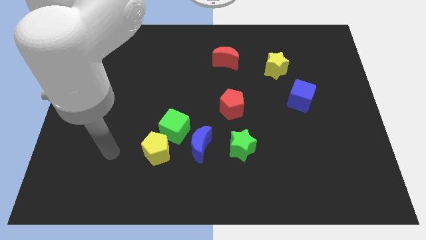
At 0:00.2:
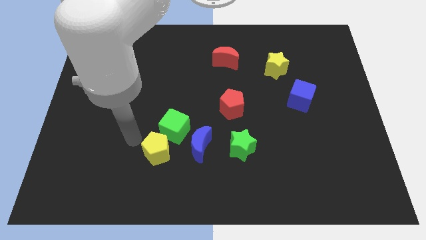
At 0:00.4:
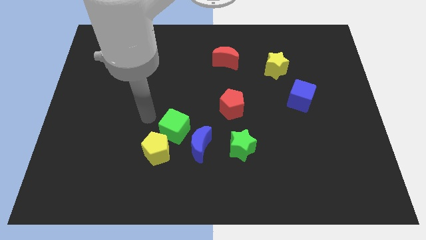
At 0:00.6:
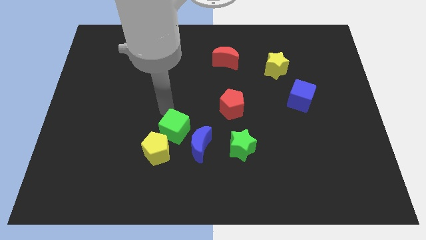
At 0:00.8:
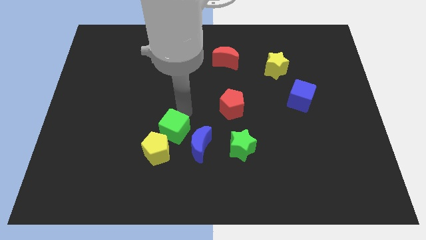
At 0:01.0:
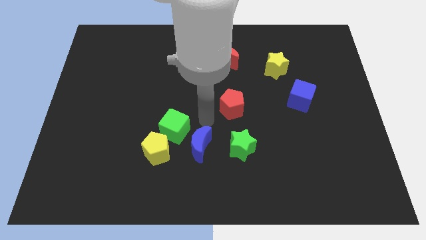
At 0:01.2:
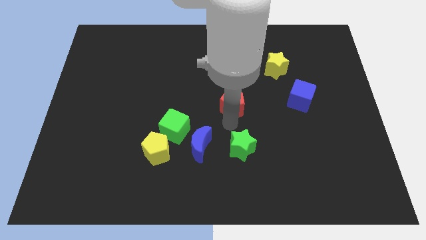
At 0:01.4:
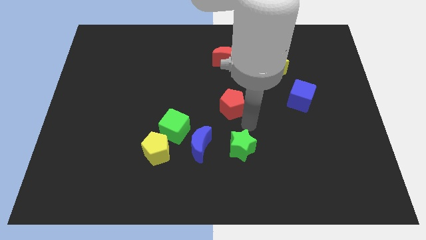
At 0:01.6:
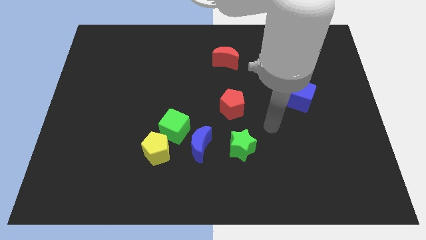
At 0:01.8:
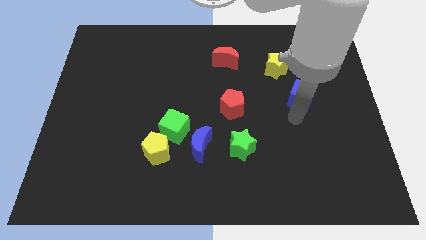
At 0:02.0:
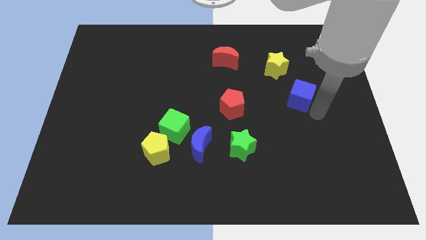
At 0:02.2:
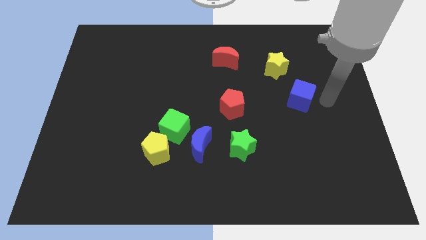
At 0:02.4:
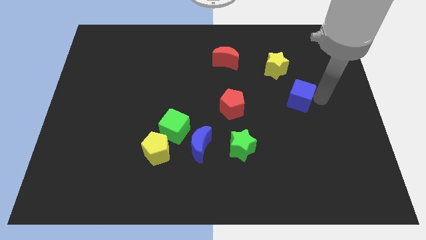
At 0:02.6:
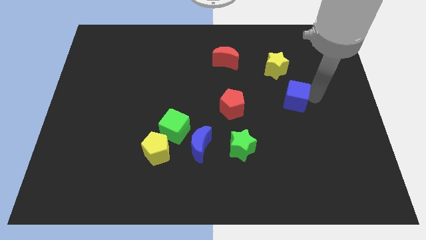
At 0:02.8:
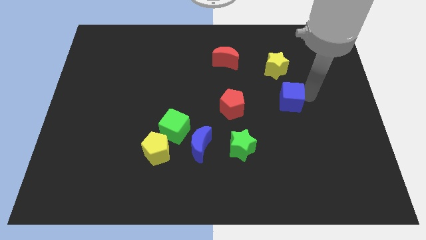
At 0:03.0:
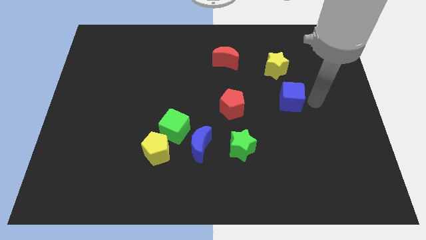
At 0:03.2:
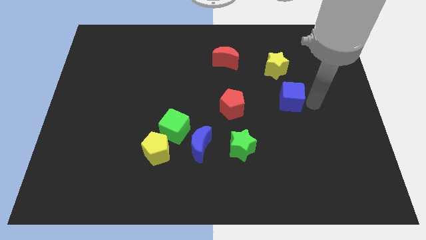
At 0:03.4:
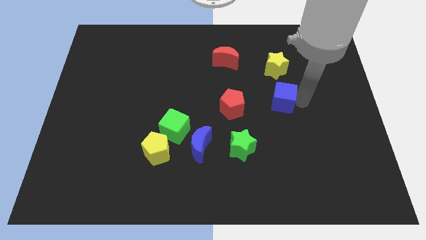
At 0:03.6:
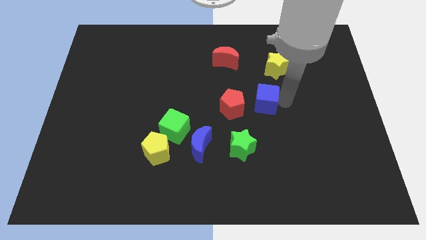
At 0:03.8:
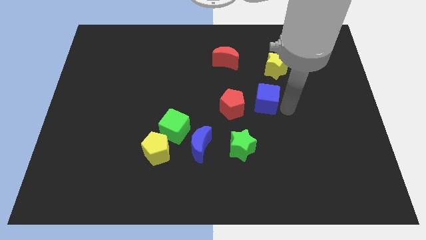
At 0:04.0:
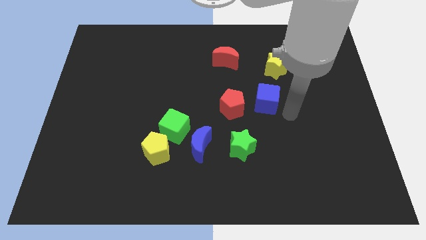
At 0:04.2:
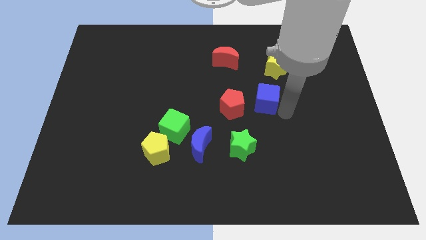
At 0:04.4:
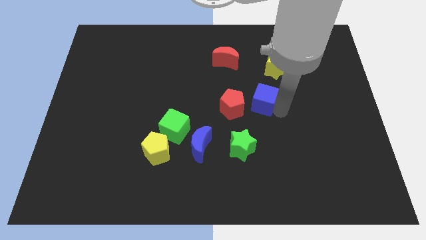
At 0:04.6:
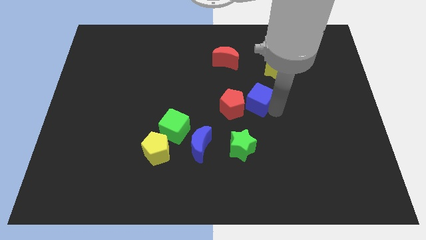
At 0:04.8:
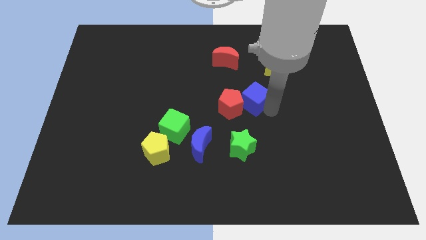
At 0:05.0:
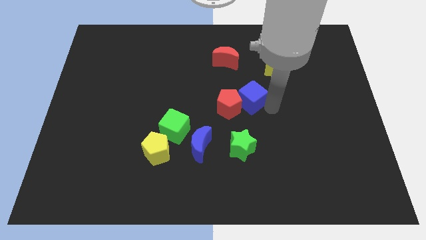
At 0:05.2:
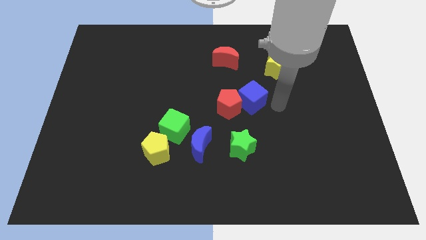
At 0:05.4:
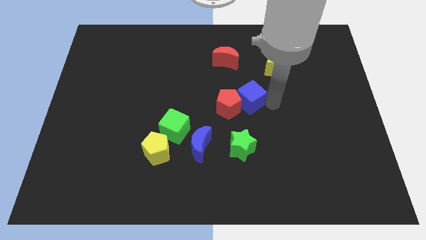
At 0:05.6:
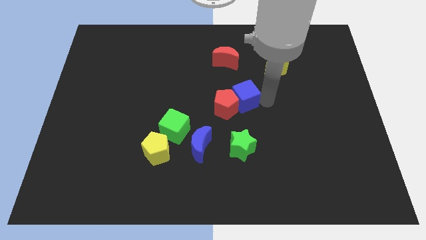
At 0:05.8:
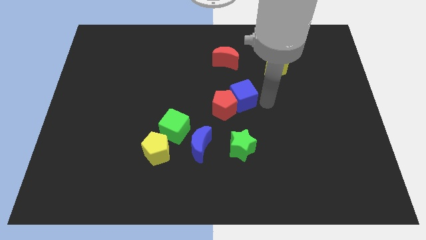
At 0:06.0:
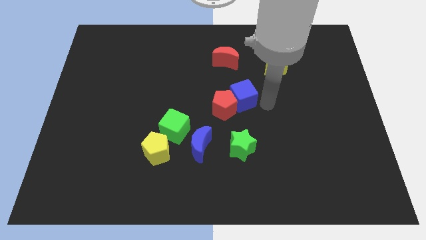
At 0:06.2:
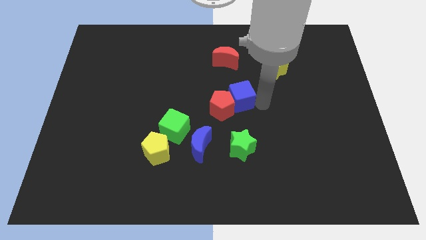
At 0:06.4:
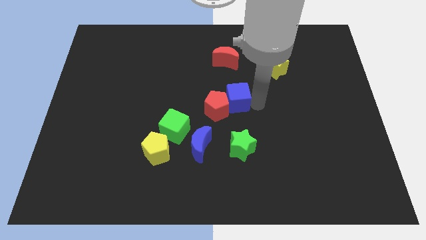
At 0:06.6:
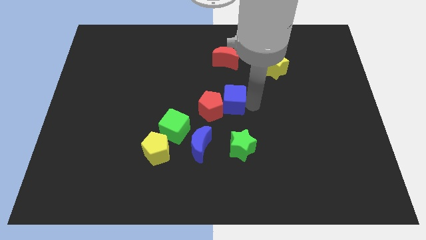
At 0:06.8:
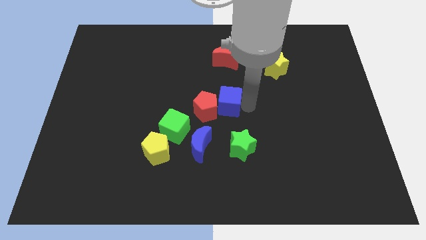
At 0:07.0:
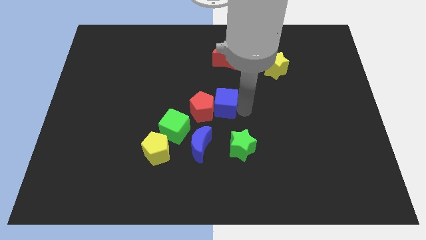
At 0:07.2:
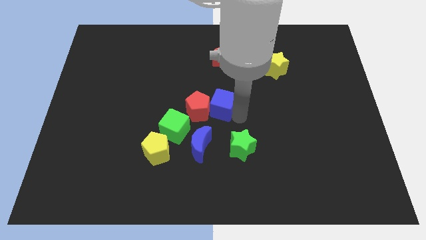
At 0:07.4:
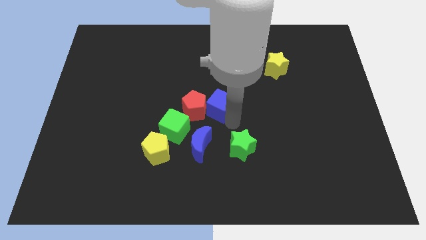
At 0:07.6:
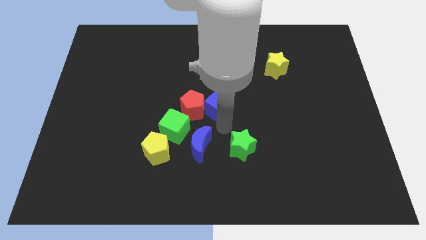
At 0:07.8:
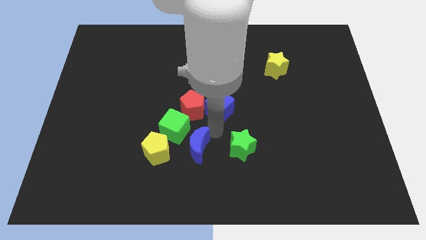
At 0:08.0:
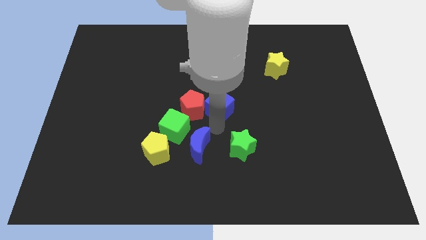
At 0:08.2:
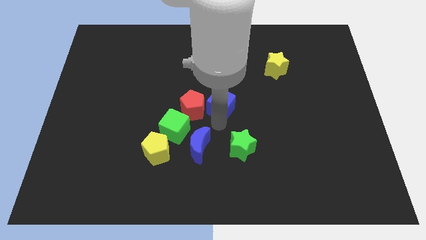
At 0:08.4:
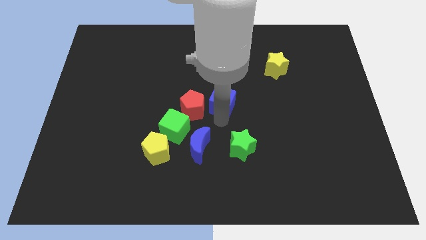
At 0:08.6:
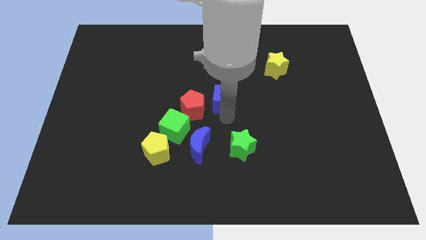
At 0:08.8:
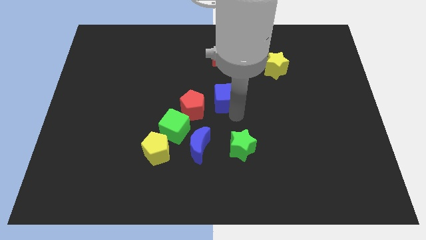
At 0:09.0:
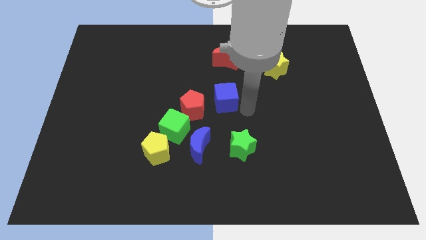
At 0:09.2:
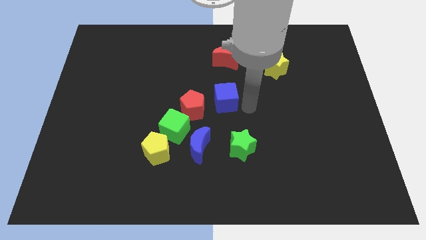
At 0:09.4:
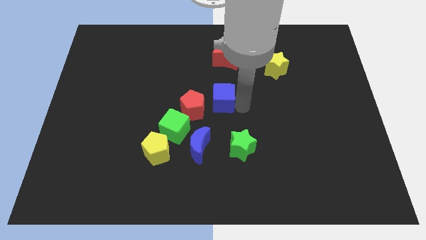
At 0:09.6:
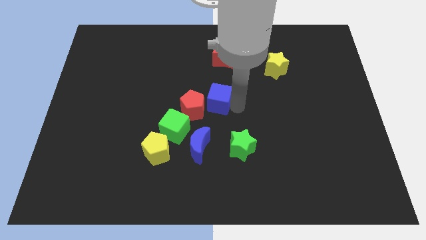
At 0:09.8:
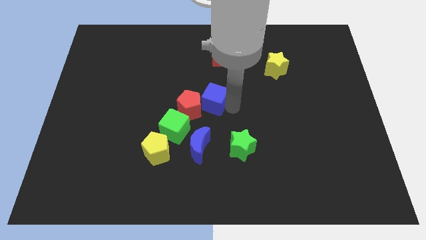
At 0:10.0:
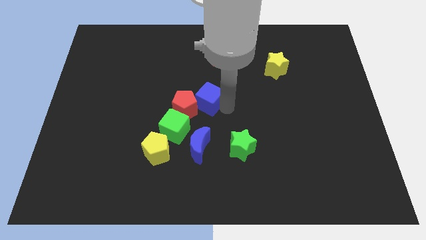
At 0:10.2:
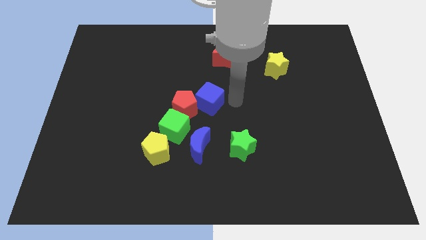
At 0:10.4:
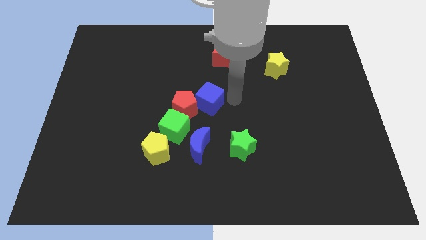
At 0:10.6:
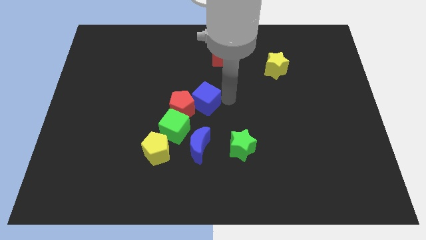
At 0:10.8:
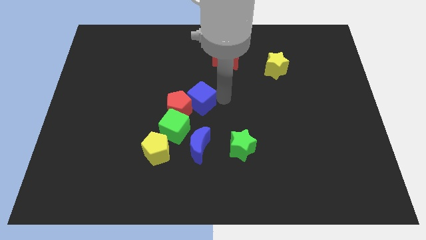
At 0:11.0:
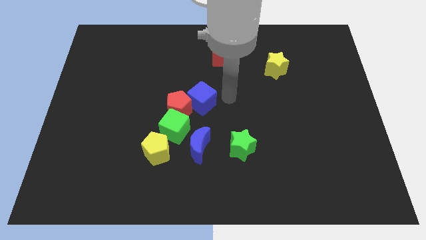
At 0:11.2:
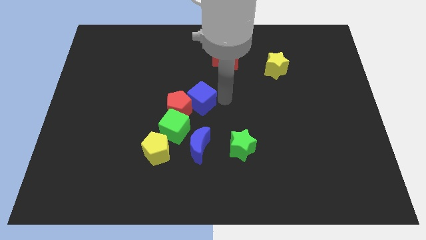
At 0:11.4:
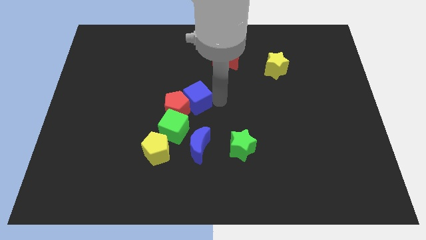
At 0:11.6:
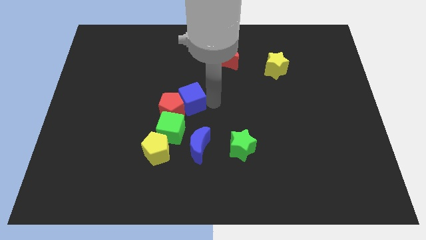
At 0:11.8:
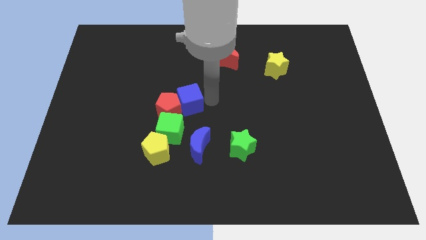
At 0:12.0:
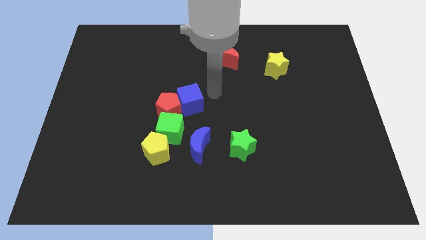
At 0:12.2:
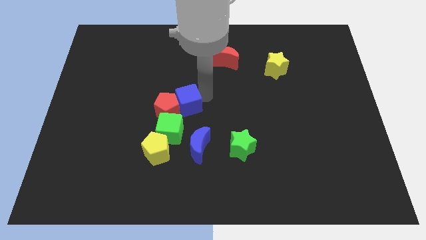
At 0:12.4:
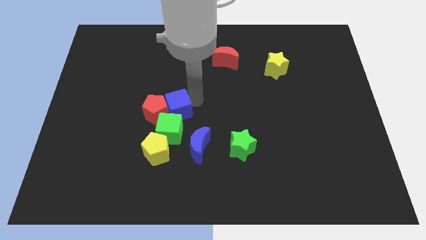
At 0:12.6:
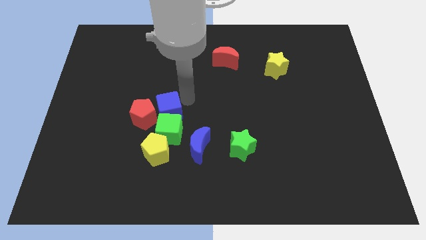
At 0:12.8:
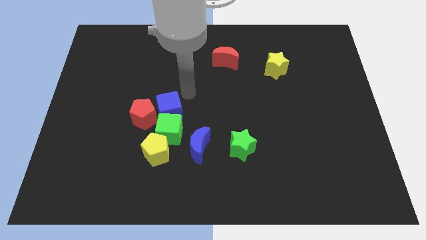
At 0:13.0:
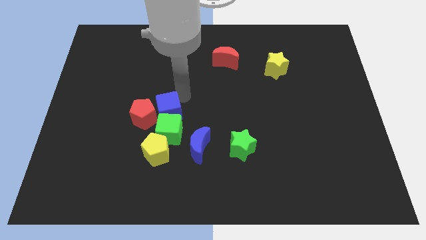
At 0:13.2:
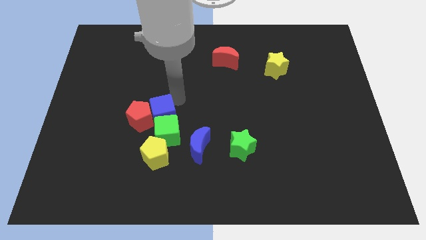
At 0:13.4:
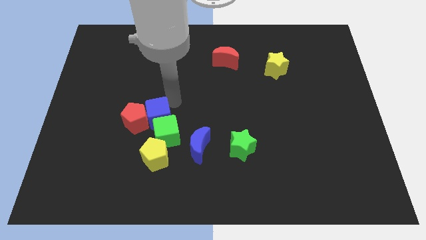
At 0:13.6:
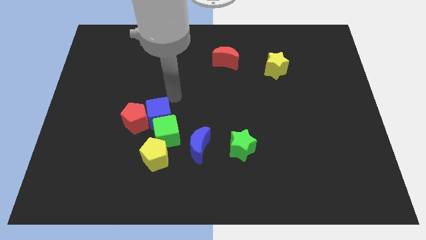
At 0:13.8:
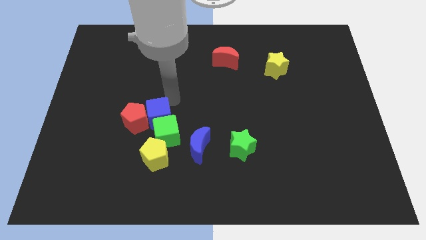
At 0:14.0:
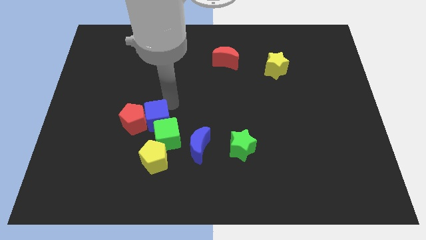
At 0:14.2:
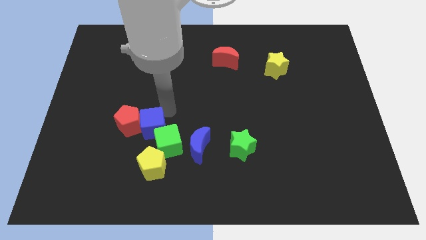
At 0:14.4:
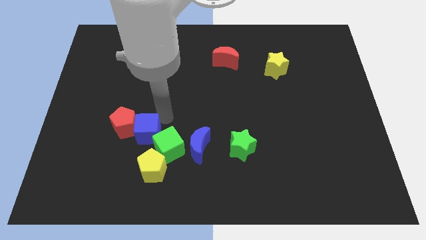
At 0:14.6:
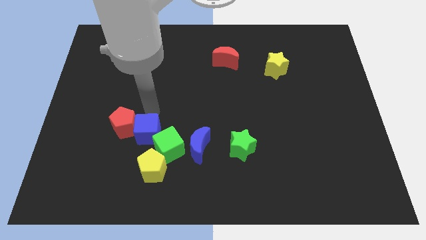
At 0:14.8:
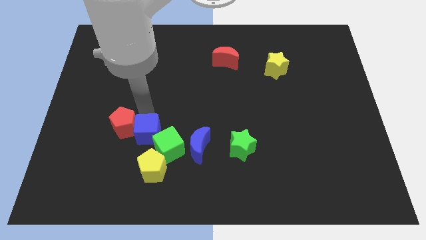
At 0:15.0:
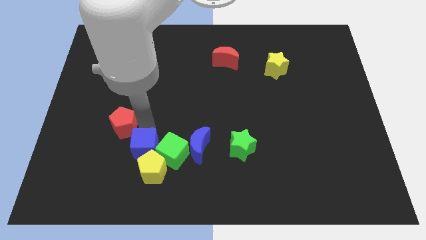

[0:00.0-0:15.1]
put the blue cube close to the yellow pentagon

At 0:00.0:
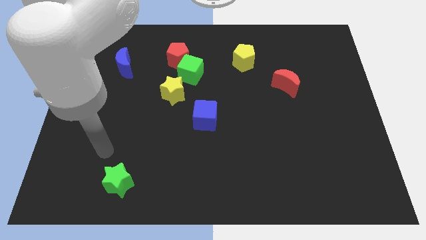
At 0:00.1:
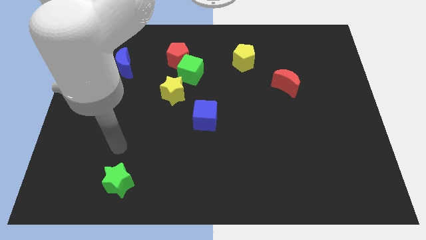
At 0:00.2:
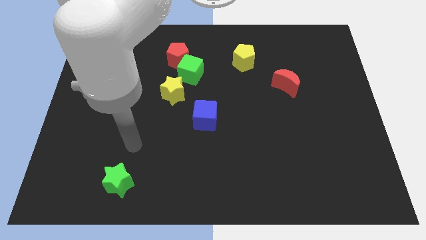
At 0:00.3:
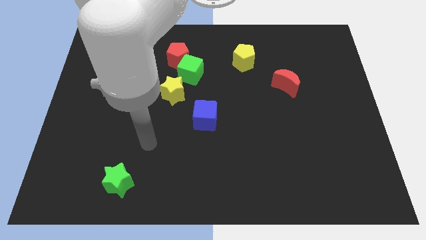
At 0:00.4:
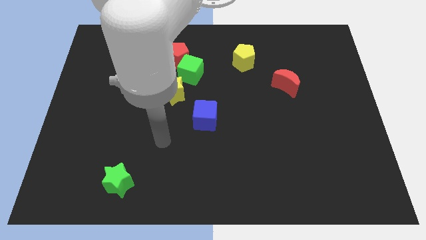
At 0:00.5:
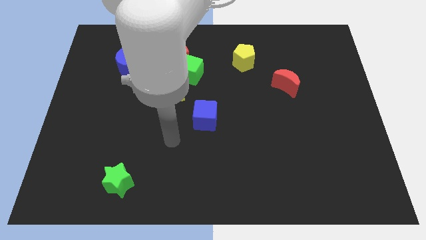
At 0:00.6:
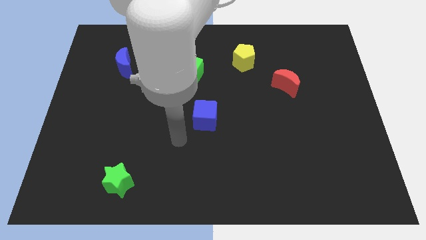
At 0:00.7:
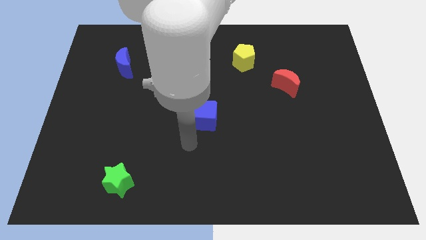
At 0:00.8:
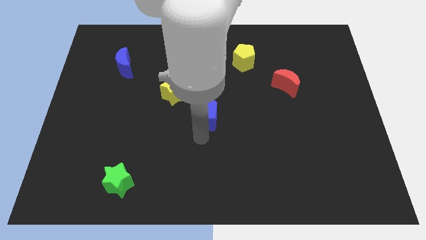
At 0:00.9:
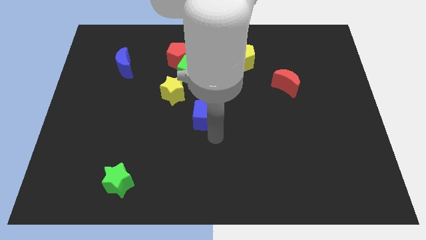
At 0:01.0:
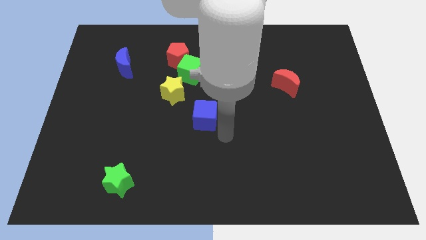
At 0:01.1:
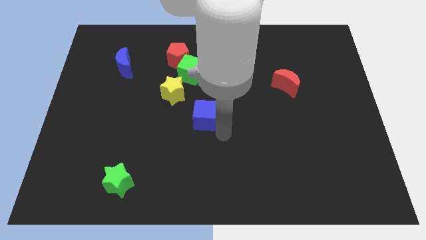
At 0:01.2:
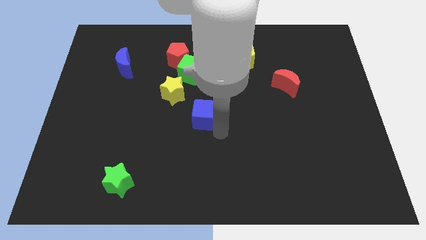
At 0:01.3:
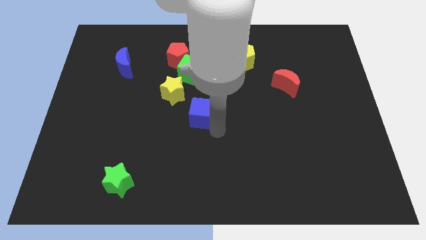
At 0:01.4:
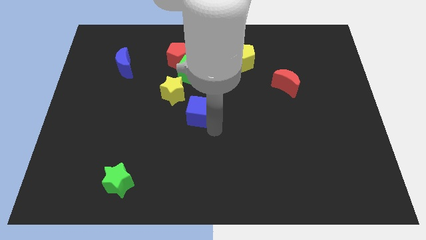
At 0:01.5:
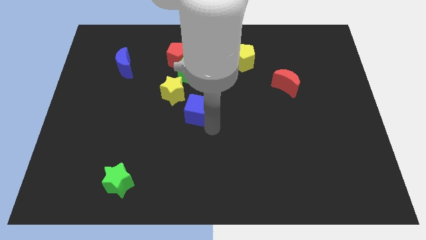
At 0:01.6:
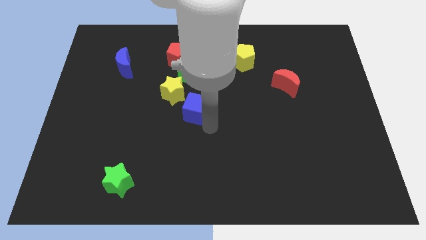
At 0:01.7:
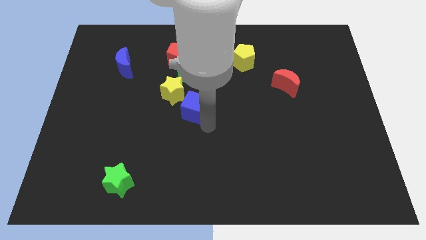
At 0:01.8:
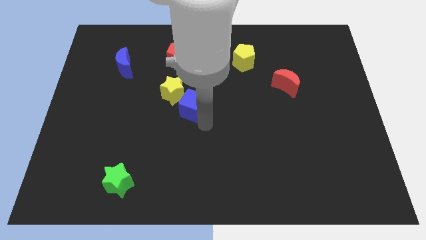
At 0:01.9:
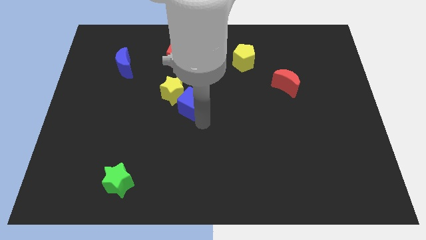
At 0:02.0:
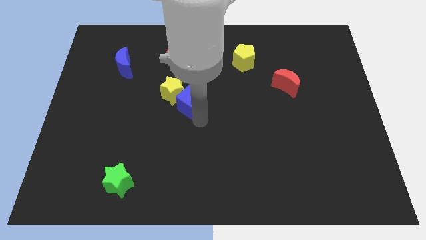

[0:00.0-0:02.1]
put the blue cube towards the yellow star
